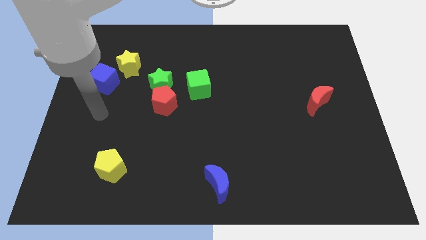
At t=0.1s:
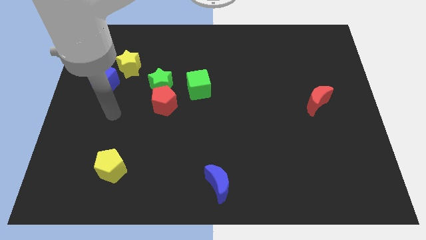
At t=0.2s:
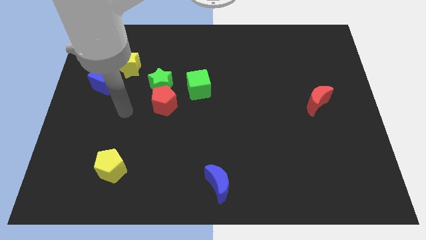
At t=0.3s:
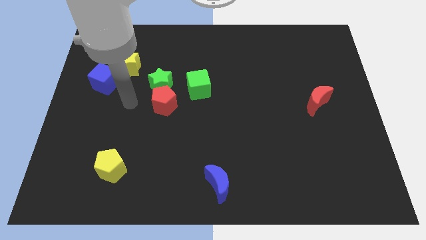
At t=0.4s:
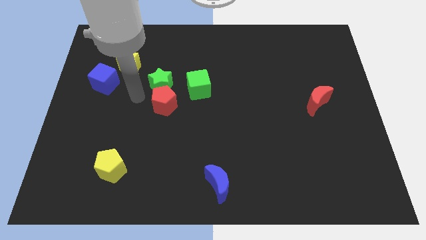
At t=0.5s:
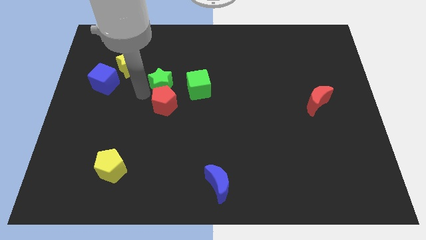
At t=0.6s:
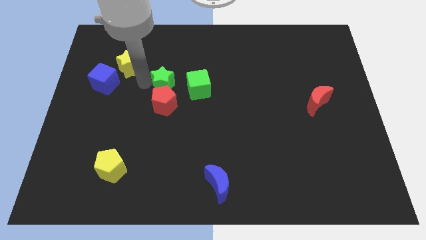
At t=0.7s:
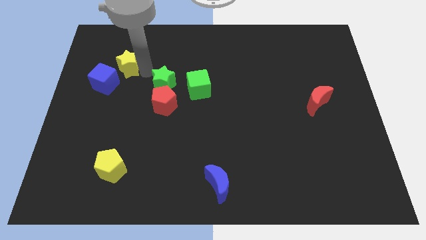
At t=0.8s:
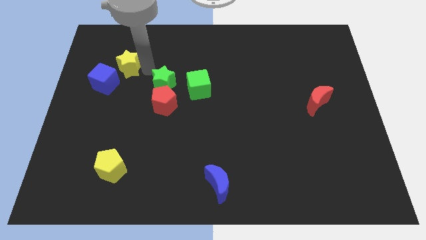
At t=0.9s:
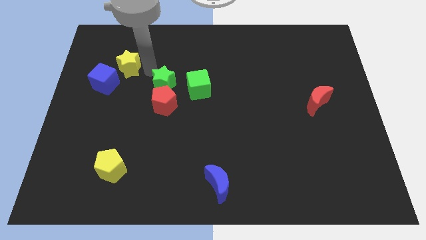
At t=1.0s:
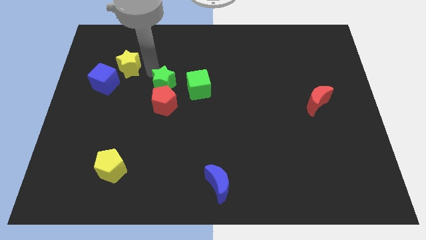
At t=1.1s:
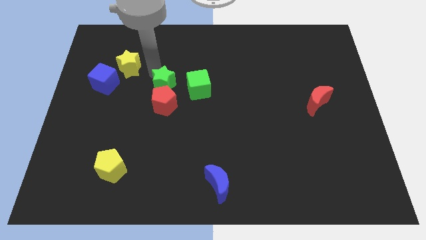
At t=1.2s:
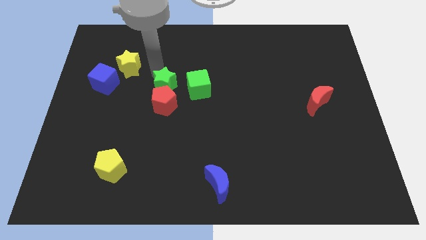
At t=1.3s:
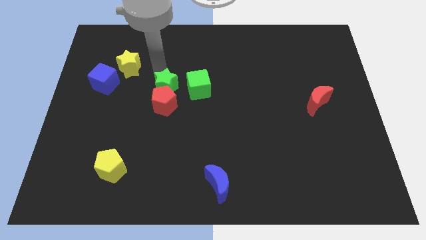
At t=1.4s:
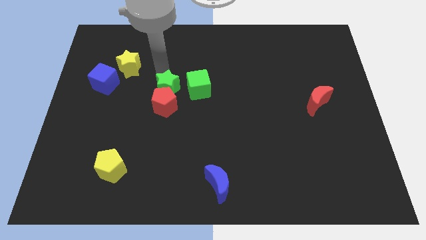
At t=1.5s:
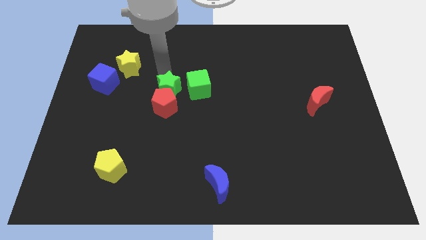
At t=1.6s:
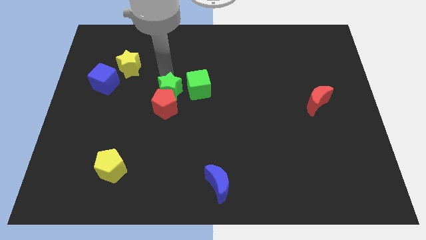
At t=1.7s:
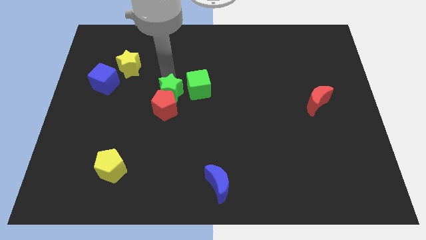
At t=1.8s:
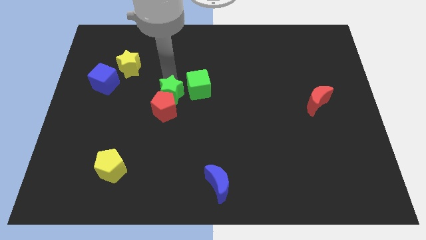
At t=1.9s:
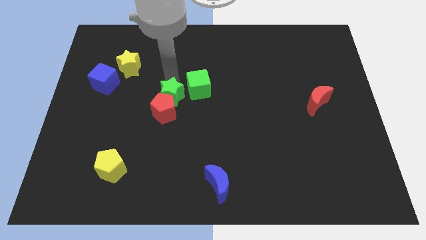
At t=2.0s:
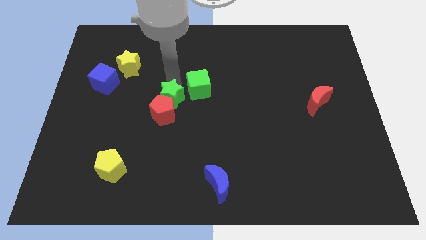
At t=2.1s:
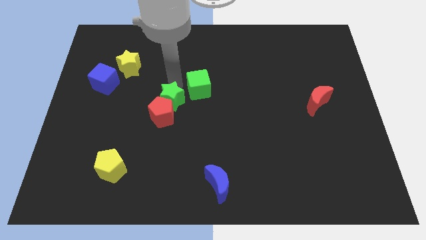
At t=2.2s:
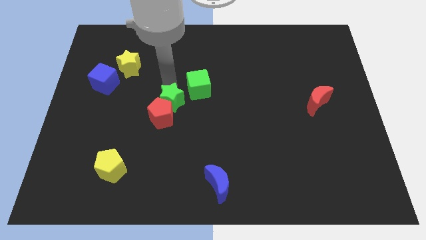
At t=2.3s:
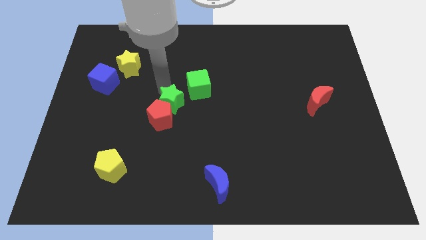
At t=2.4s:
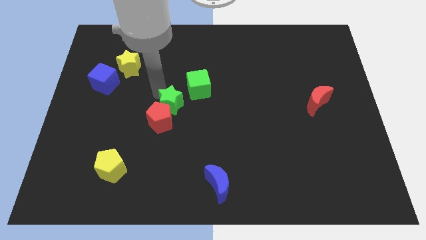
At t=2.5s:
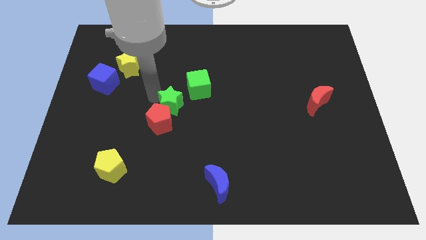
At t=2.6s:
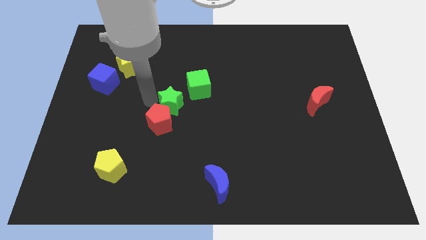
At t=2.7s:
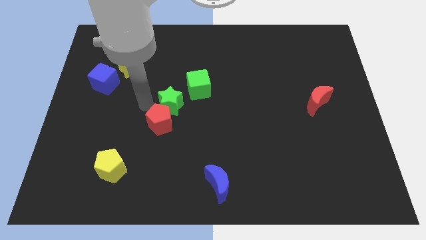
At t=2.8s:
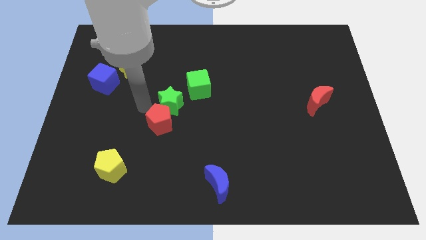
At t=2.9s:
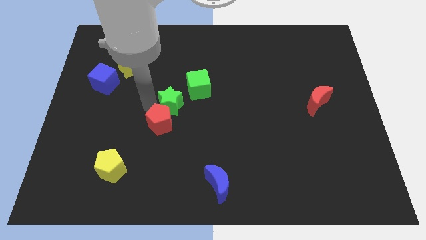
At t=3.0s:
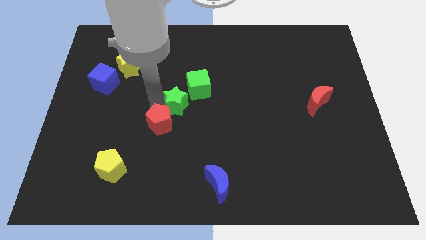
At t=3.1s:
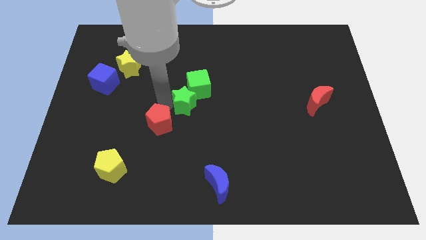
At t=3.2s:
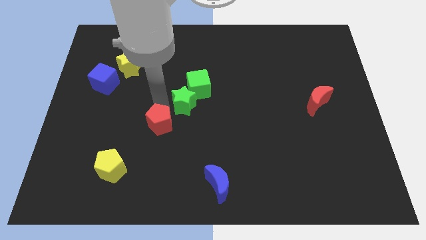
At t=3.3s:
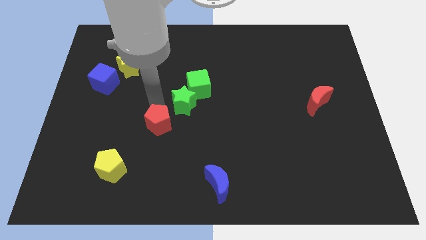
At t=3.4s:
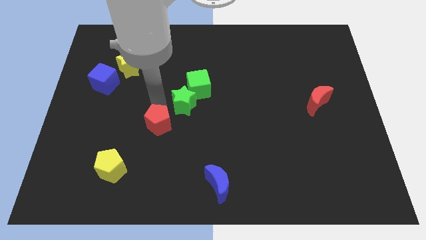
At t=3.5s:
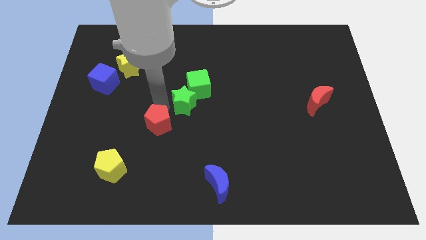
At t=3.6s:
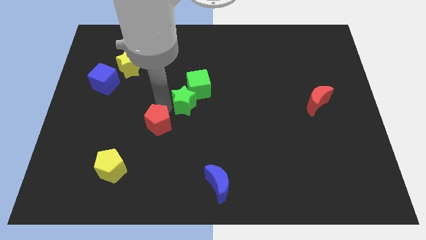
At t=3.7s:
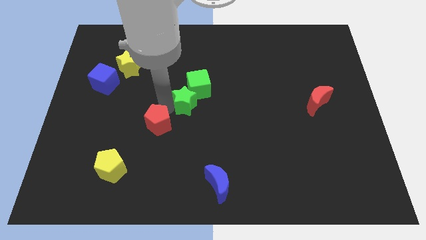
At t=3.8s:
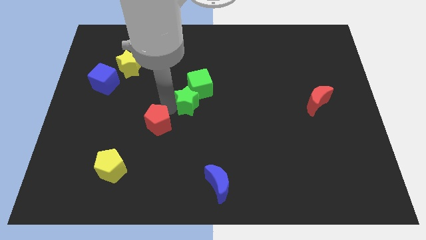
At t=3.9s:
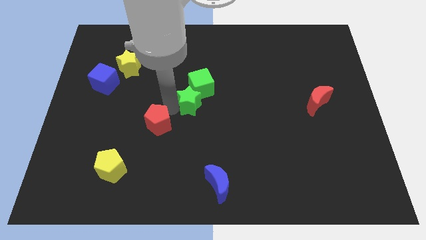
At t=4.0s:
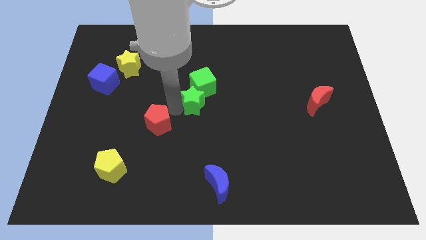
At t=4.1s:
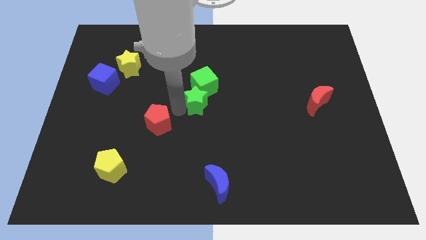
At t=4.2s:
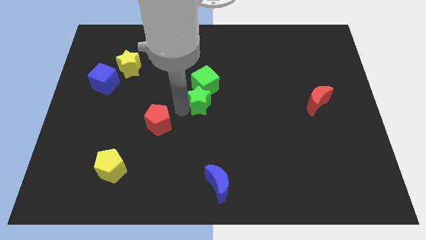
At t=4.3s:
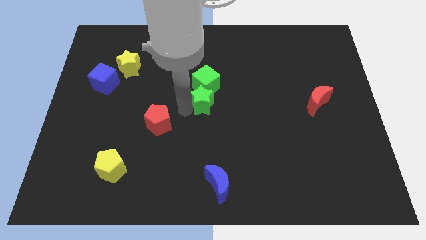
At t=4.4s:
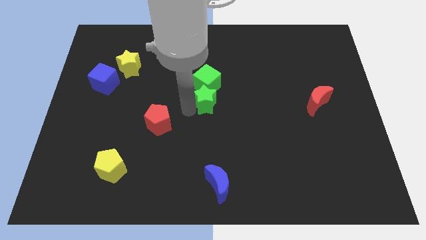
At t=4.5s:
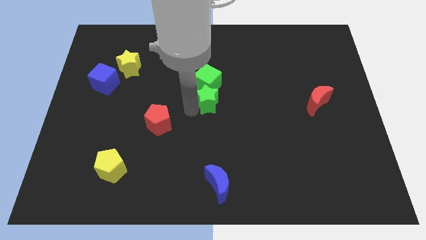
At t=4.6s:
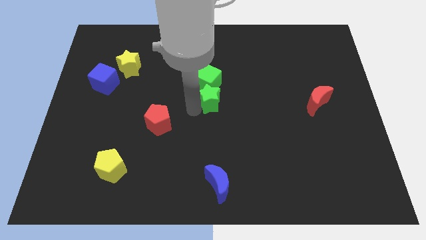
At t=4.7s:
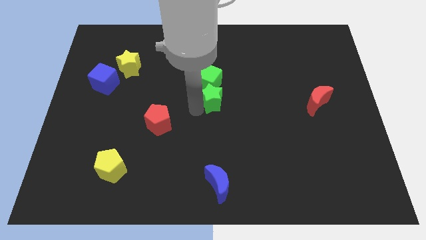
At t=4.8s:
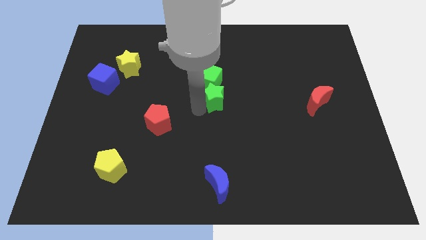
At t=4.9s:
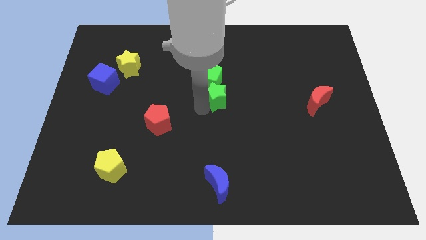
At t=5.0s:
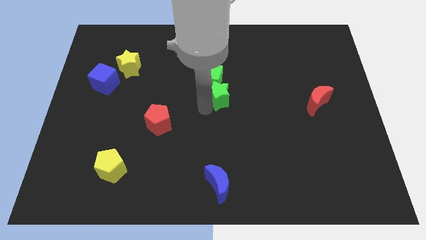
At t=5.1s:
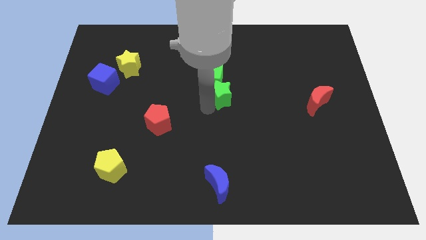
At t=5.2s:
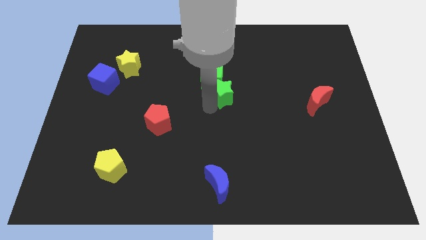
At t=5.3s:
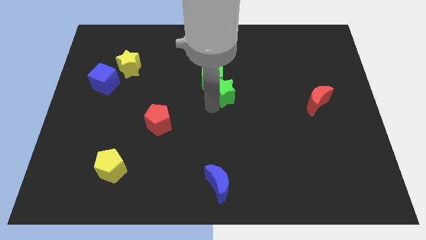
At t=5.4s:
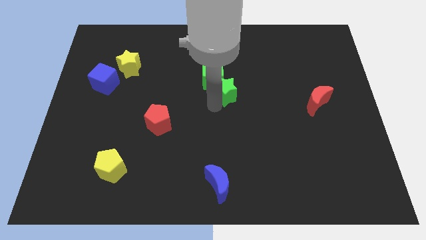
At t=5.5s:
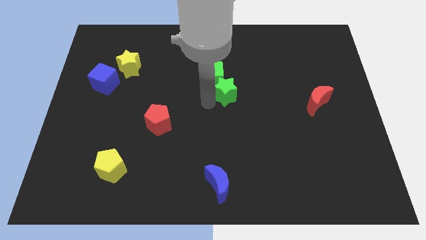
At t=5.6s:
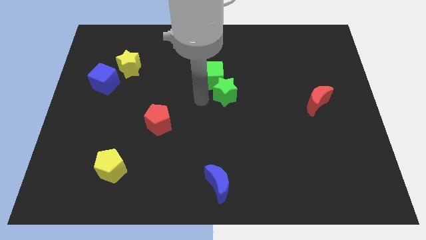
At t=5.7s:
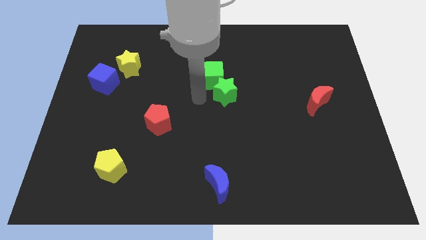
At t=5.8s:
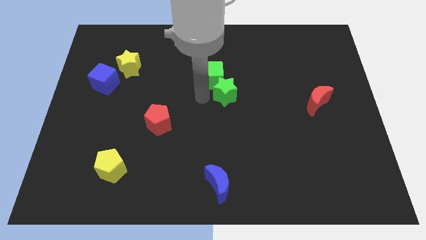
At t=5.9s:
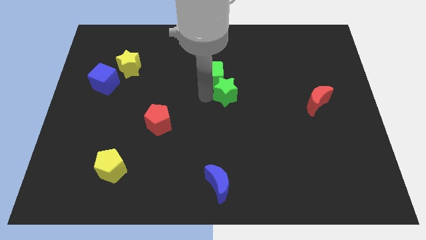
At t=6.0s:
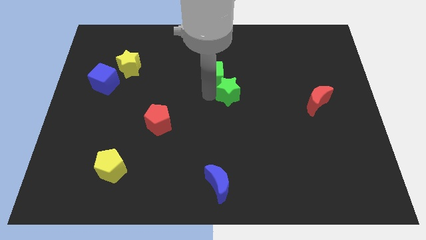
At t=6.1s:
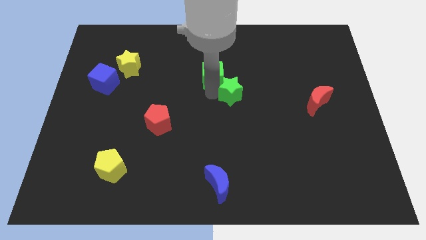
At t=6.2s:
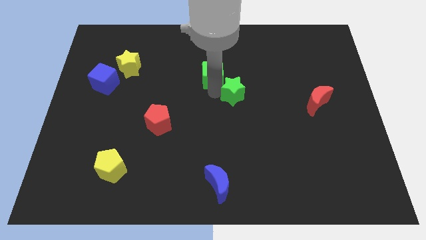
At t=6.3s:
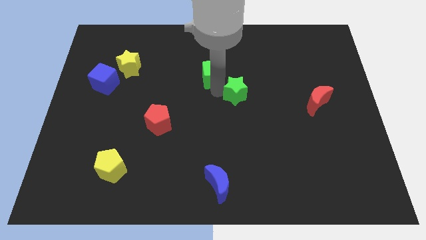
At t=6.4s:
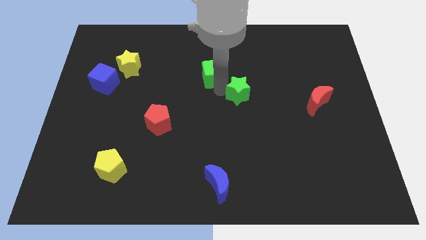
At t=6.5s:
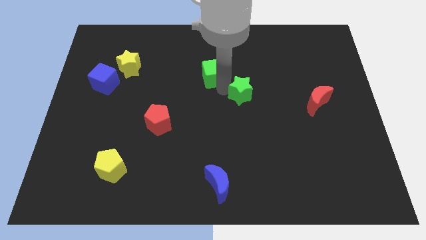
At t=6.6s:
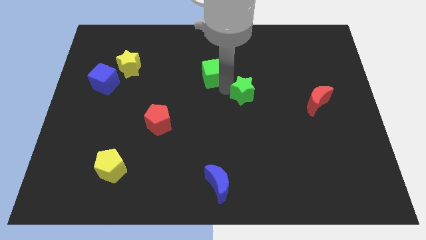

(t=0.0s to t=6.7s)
slide the green star to the right

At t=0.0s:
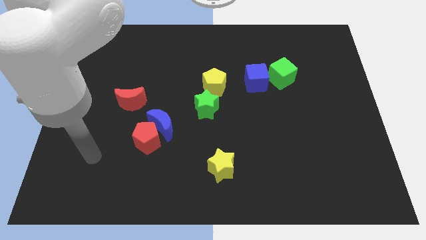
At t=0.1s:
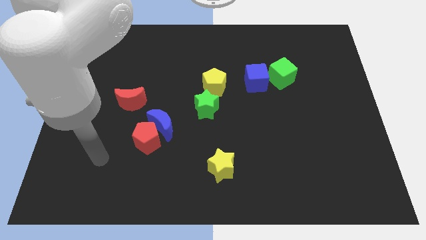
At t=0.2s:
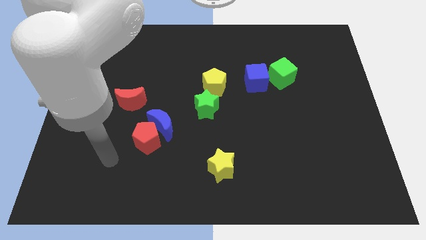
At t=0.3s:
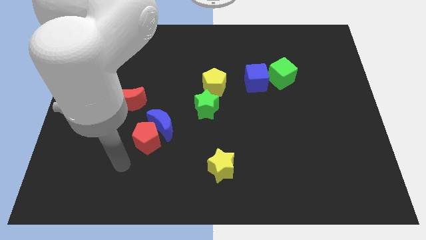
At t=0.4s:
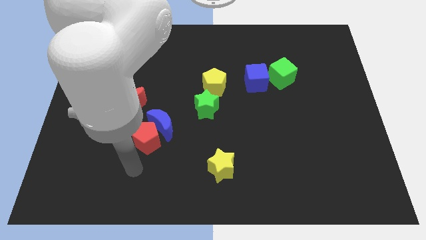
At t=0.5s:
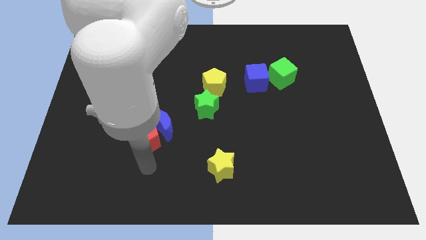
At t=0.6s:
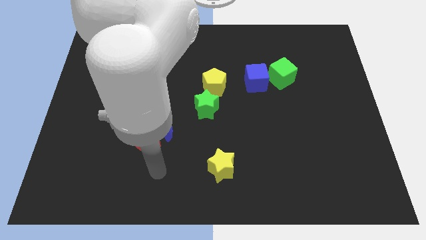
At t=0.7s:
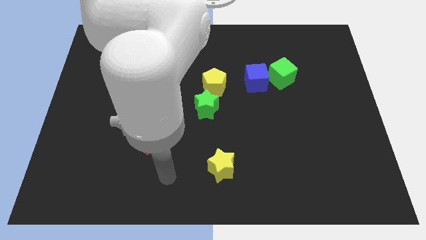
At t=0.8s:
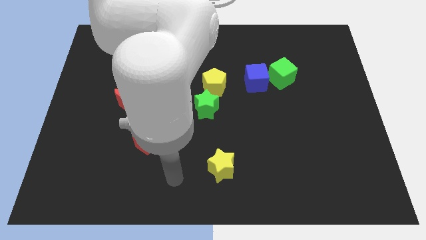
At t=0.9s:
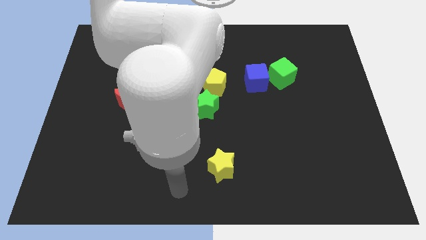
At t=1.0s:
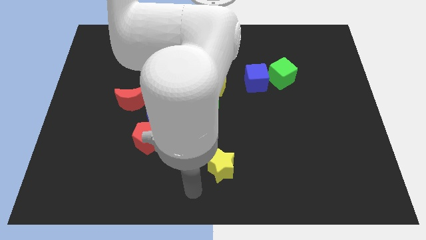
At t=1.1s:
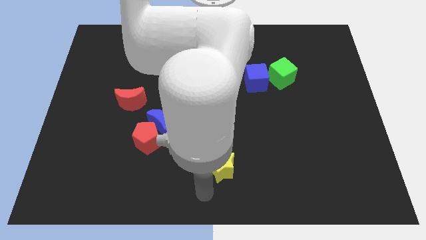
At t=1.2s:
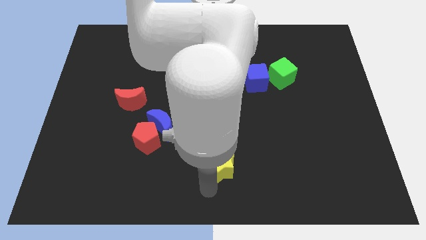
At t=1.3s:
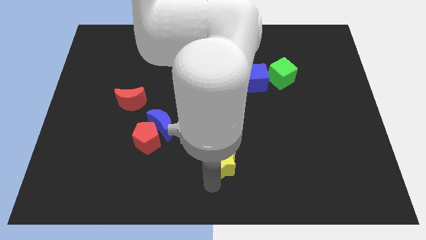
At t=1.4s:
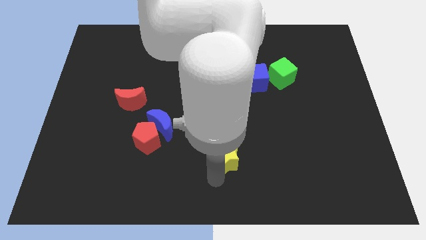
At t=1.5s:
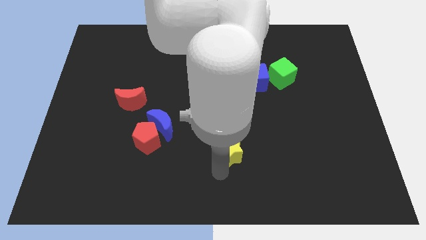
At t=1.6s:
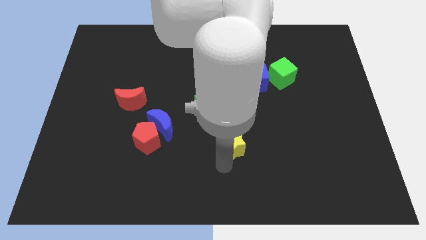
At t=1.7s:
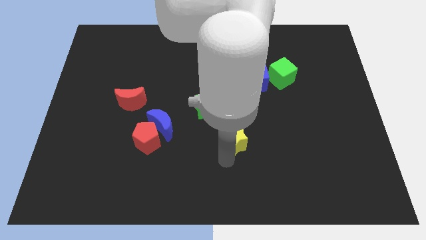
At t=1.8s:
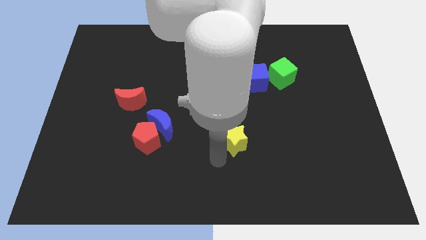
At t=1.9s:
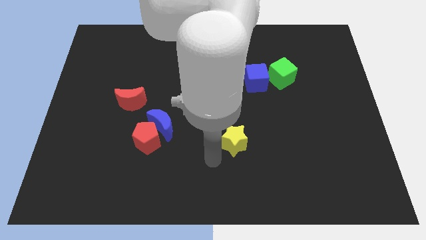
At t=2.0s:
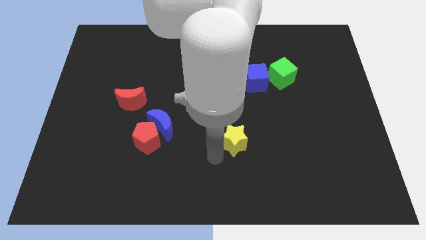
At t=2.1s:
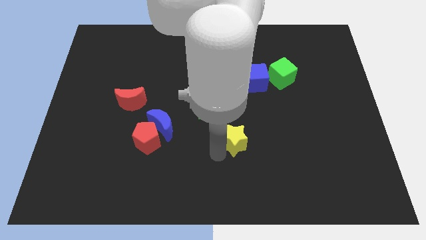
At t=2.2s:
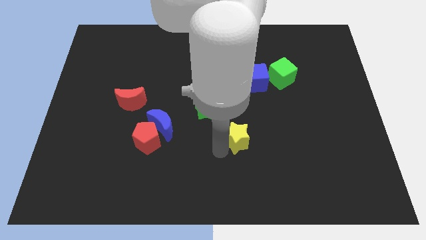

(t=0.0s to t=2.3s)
slide the yellow star upwards and then to the right a bit
